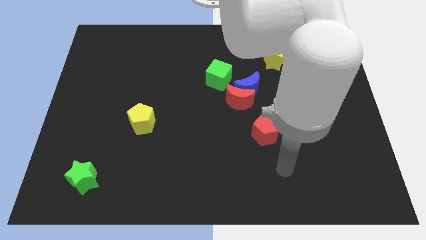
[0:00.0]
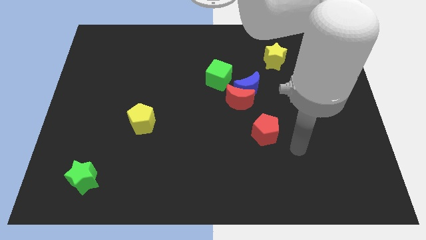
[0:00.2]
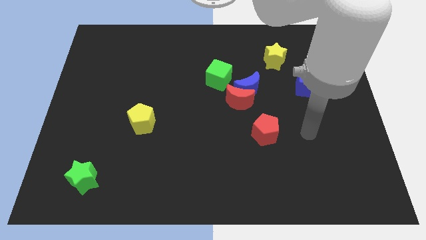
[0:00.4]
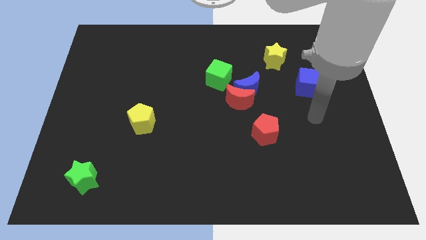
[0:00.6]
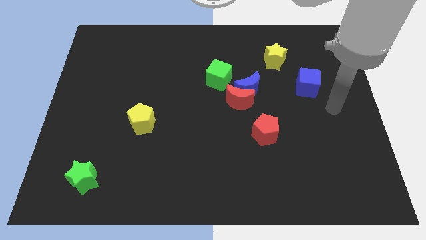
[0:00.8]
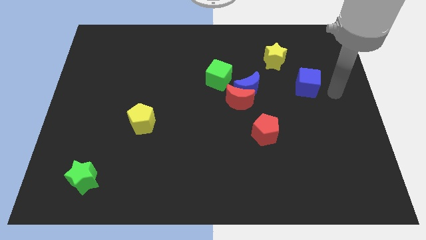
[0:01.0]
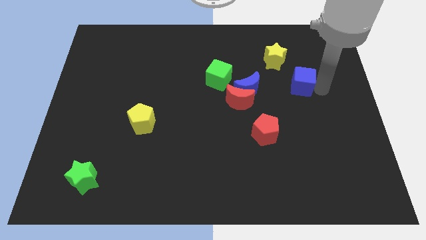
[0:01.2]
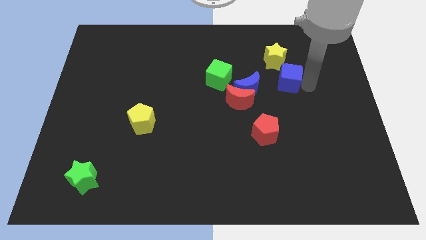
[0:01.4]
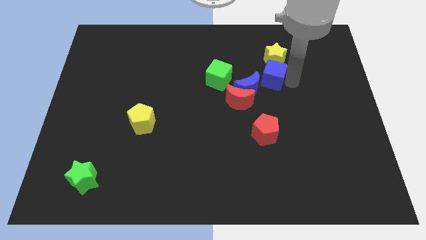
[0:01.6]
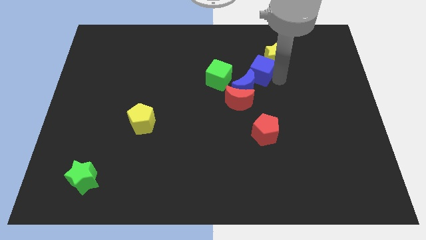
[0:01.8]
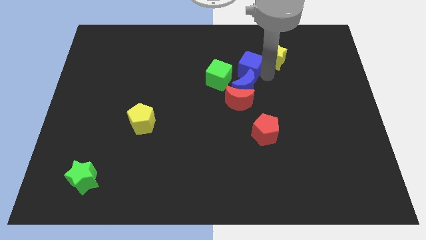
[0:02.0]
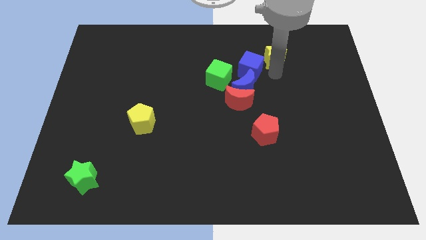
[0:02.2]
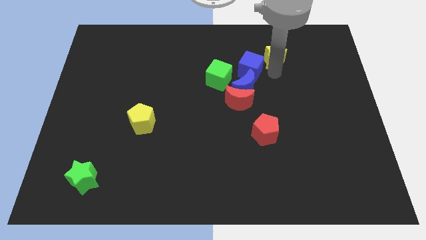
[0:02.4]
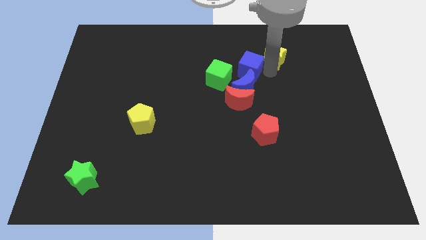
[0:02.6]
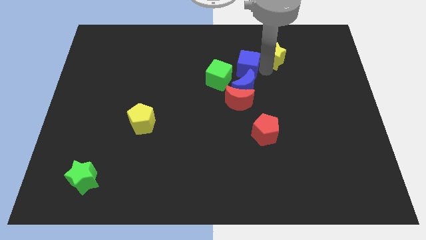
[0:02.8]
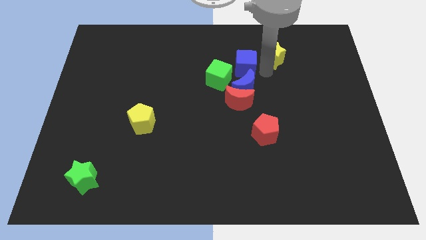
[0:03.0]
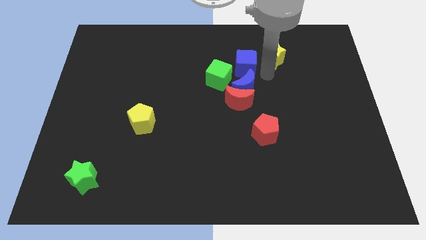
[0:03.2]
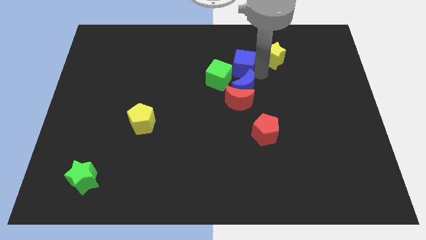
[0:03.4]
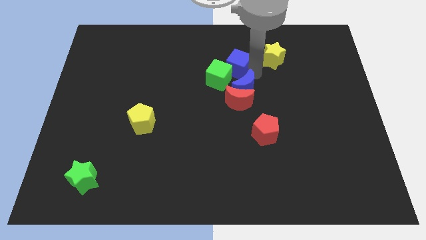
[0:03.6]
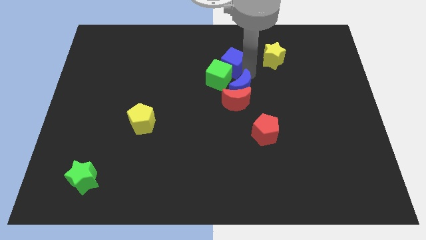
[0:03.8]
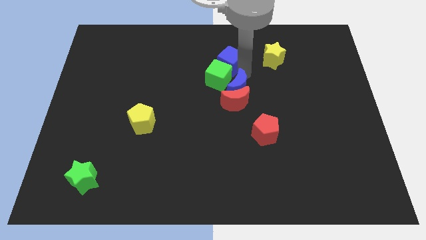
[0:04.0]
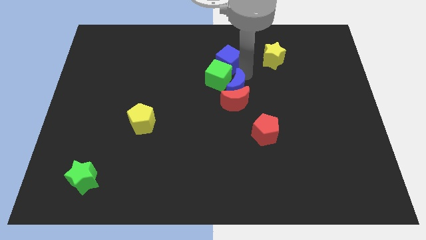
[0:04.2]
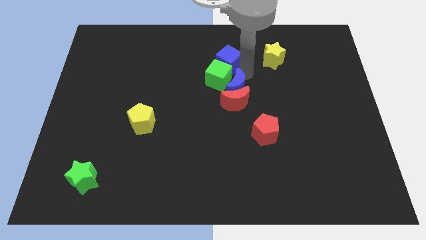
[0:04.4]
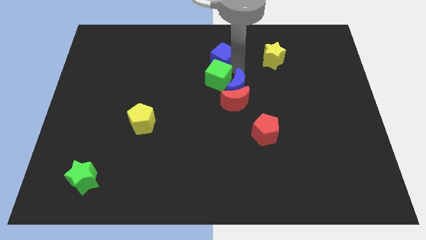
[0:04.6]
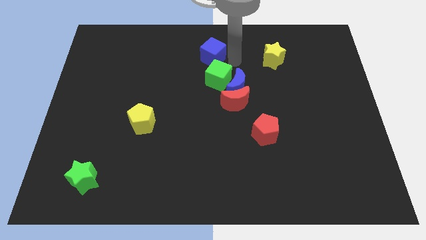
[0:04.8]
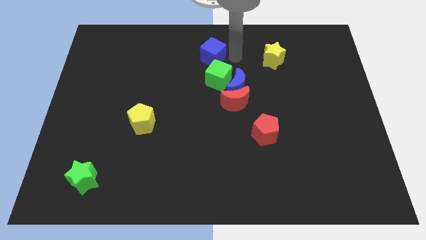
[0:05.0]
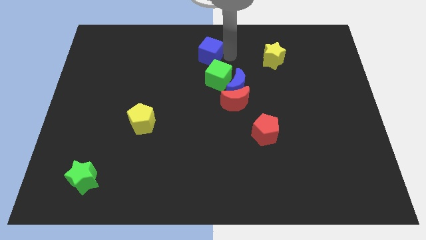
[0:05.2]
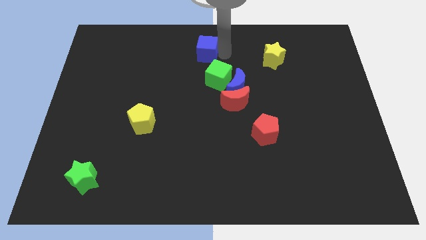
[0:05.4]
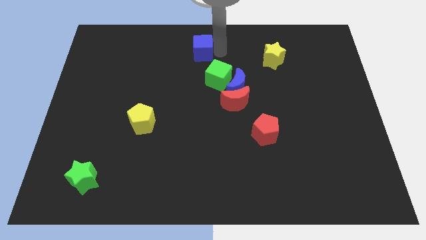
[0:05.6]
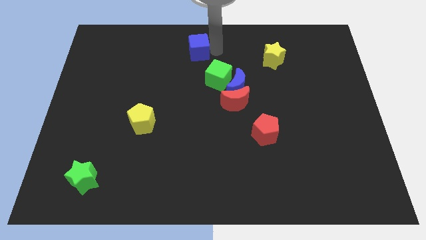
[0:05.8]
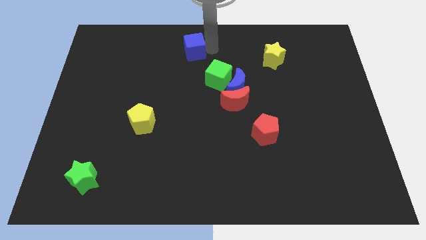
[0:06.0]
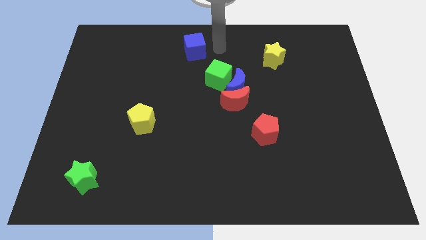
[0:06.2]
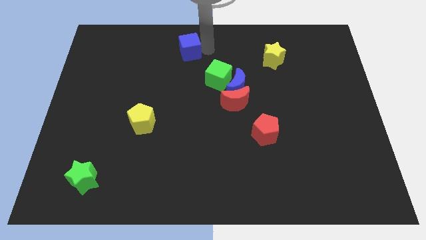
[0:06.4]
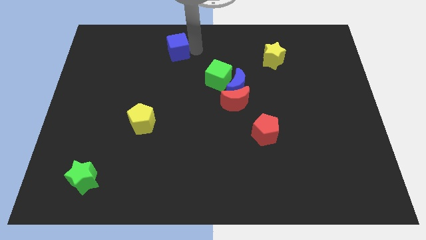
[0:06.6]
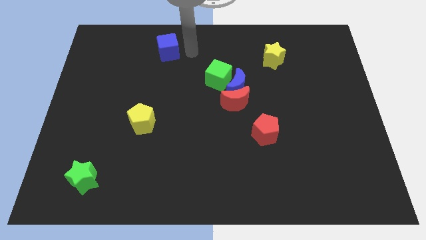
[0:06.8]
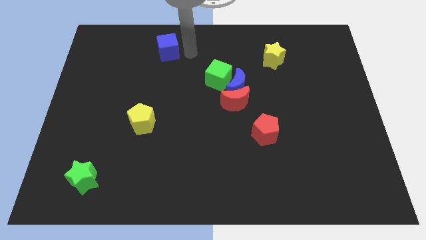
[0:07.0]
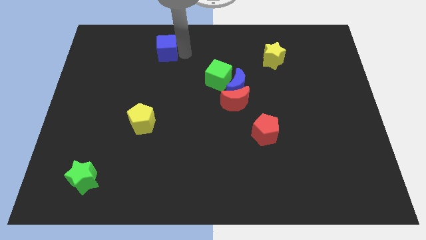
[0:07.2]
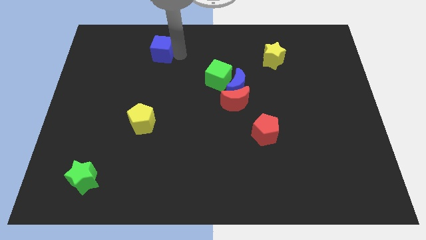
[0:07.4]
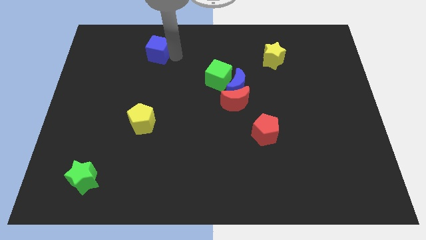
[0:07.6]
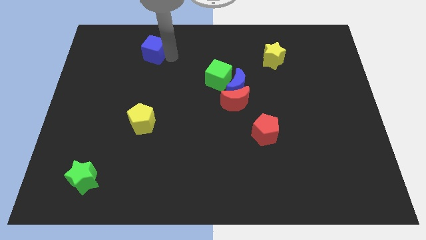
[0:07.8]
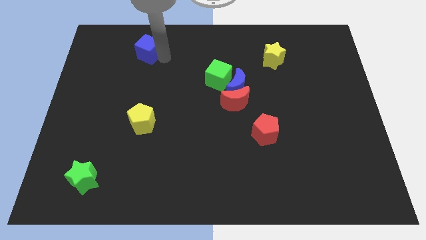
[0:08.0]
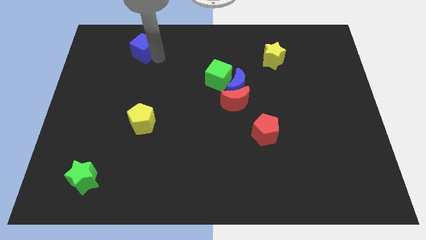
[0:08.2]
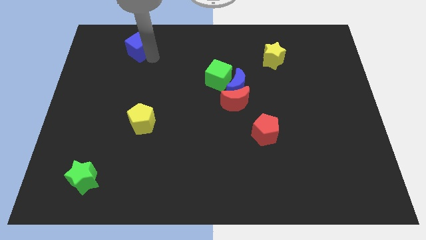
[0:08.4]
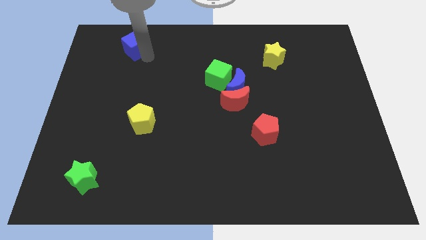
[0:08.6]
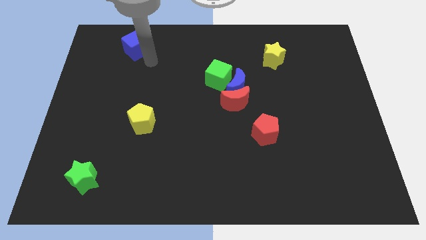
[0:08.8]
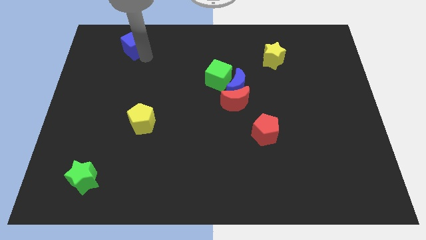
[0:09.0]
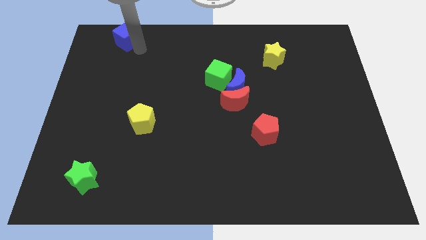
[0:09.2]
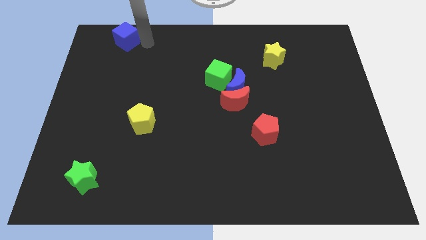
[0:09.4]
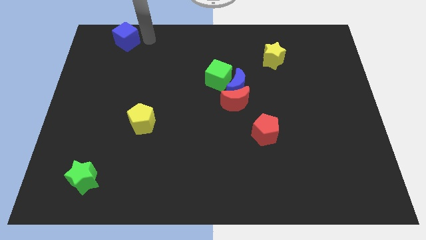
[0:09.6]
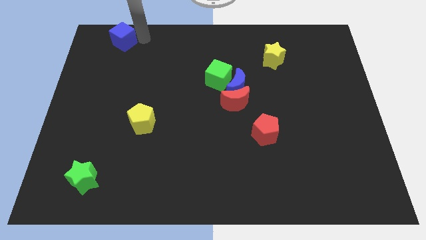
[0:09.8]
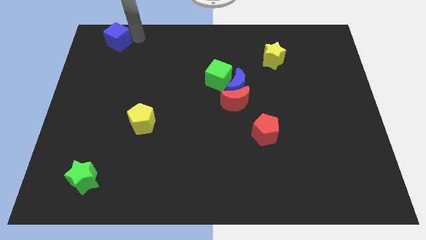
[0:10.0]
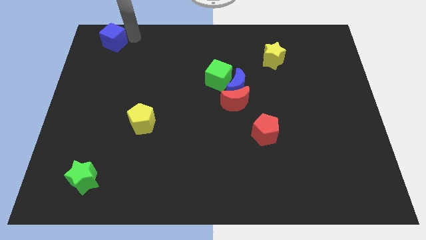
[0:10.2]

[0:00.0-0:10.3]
move the blue cube to the top left corner

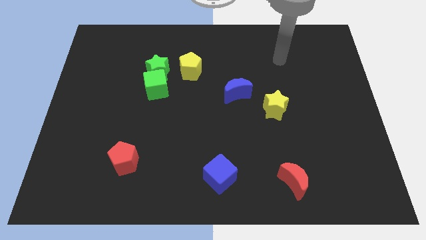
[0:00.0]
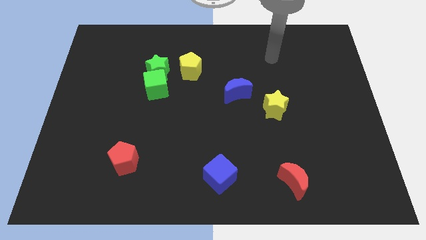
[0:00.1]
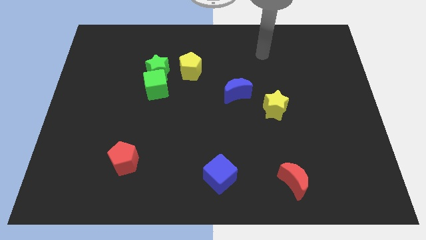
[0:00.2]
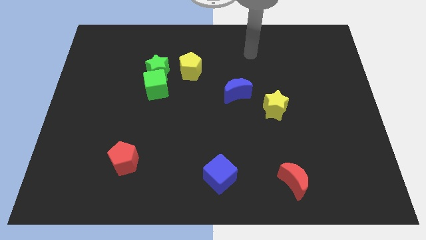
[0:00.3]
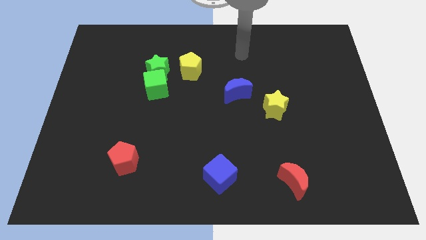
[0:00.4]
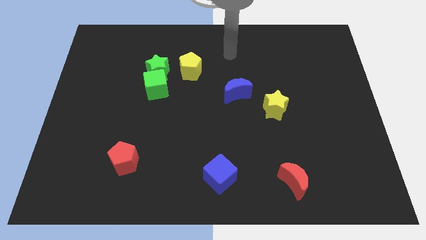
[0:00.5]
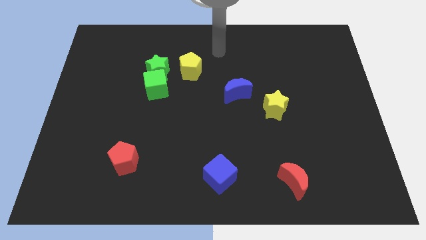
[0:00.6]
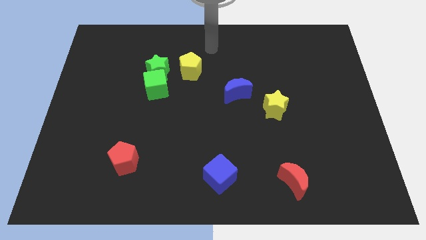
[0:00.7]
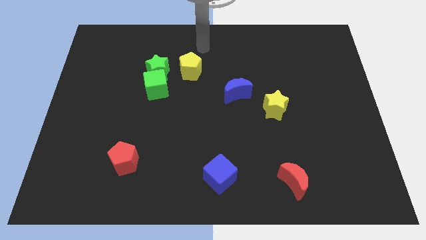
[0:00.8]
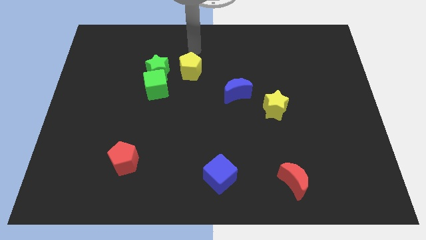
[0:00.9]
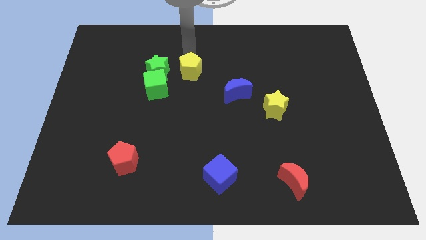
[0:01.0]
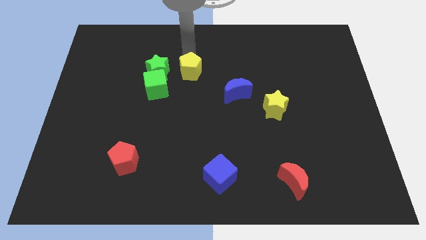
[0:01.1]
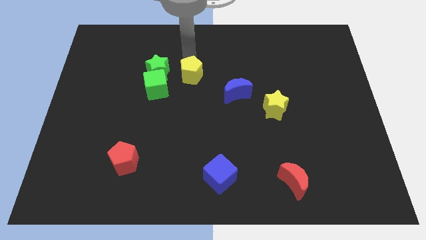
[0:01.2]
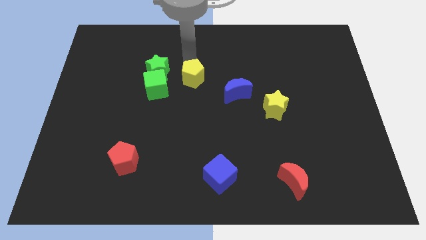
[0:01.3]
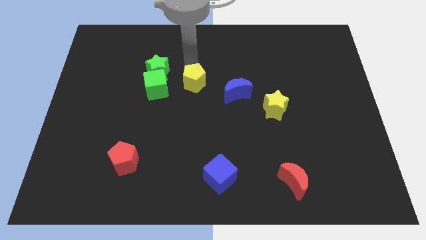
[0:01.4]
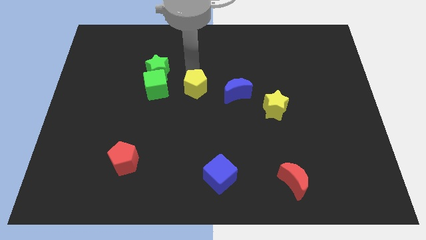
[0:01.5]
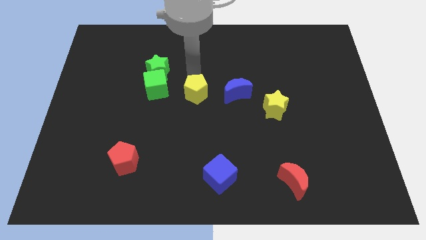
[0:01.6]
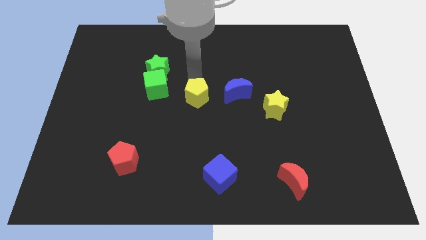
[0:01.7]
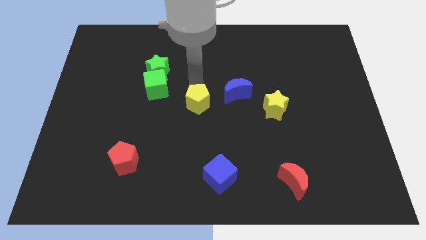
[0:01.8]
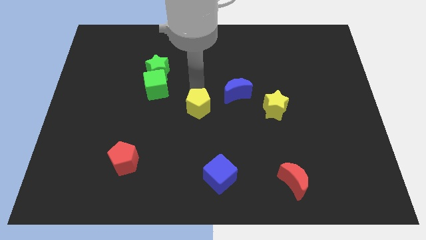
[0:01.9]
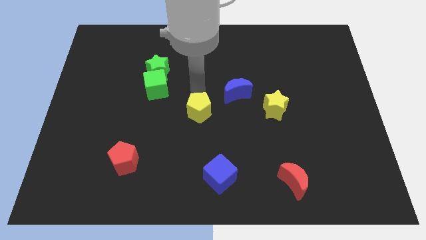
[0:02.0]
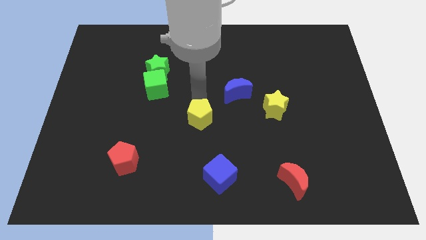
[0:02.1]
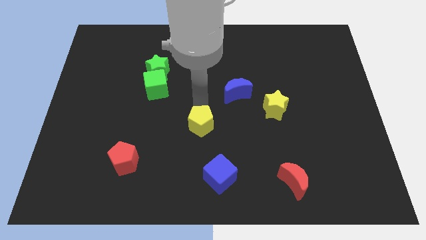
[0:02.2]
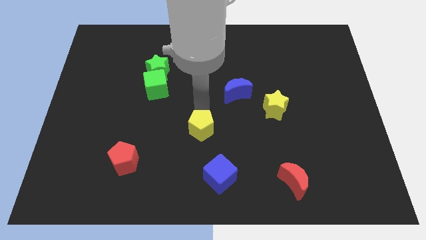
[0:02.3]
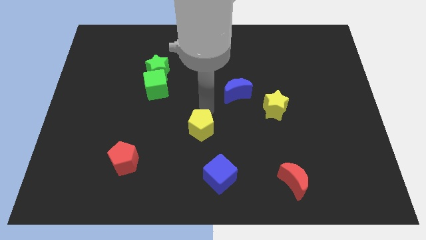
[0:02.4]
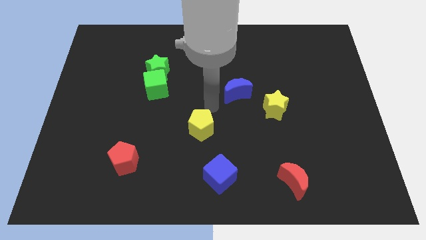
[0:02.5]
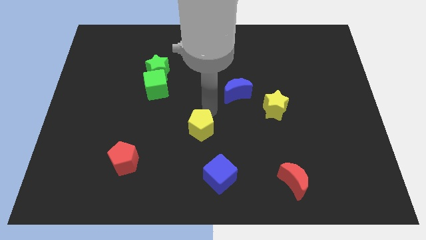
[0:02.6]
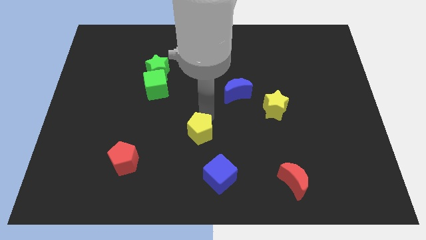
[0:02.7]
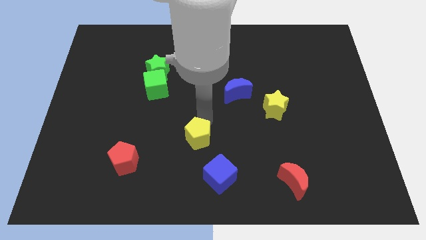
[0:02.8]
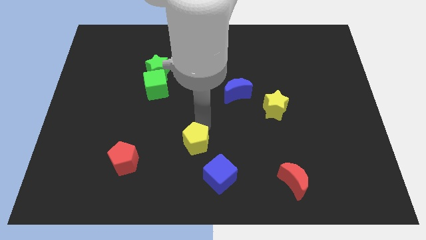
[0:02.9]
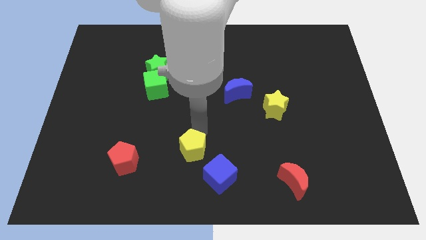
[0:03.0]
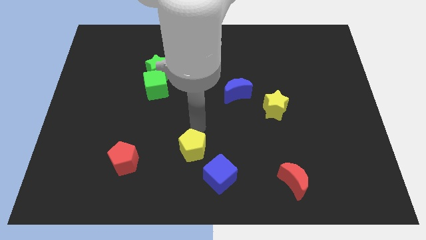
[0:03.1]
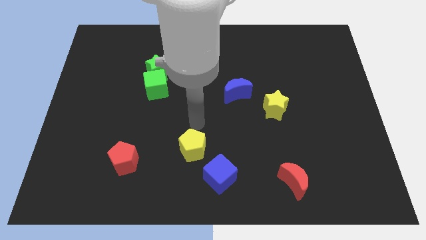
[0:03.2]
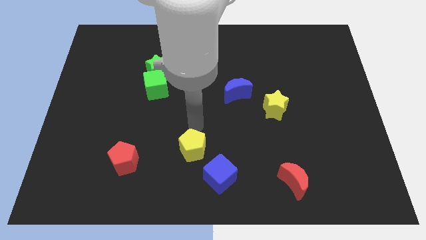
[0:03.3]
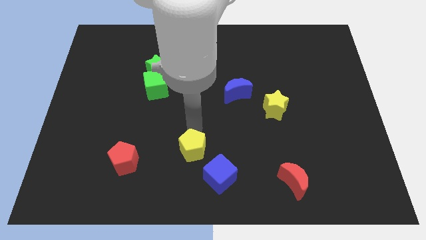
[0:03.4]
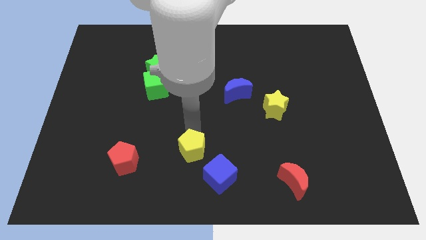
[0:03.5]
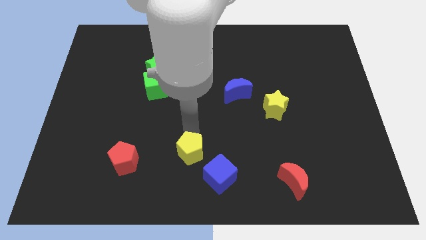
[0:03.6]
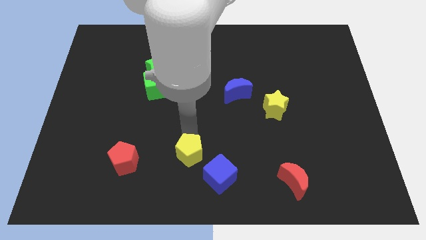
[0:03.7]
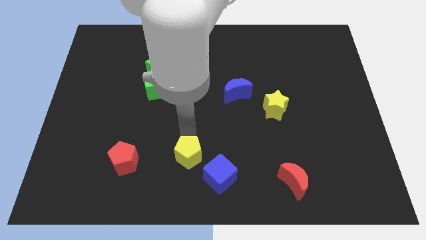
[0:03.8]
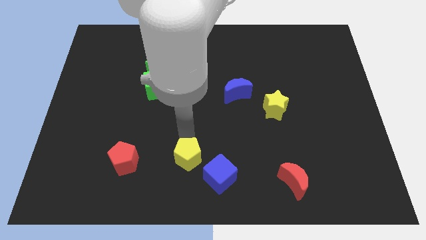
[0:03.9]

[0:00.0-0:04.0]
push the yellow pentagon to the bottom
